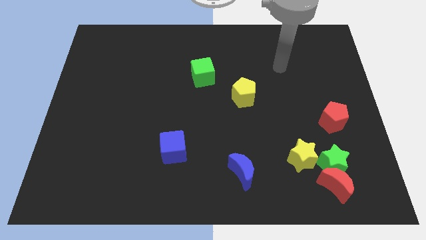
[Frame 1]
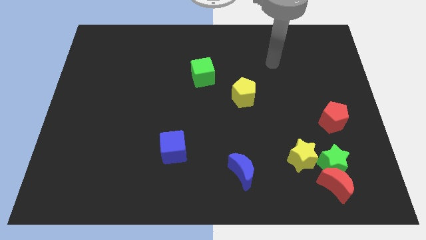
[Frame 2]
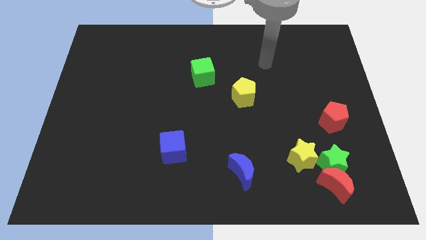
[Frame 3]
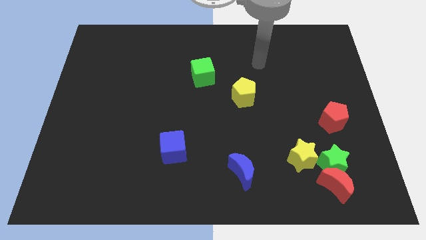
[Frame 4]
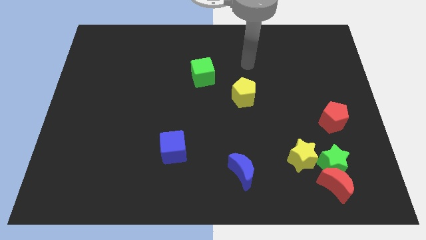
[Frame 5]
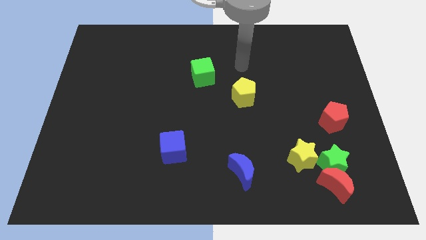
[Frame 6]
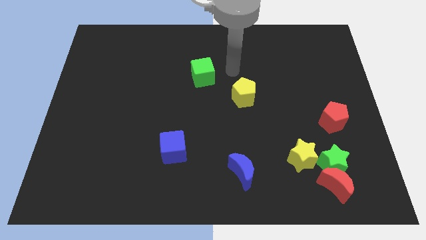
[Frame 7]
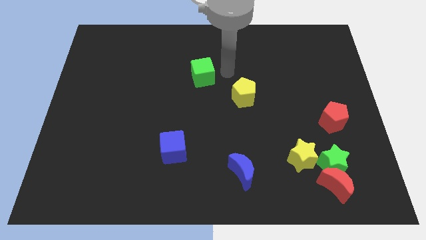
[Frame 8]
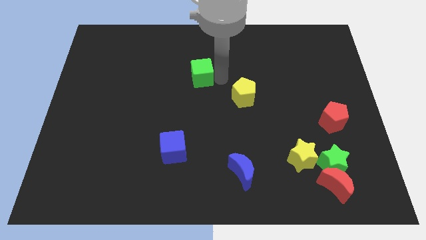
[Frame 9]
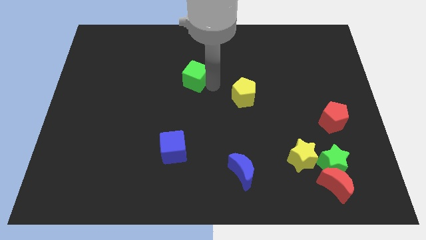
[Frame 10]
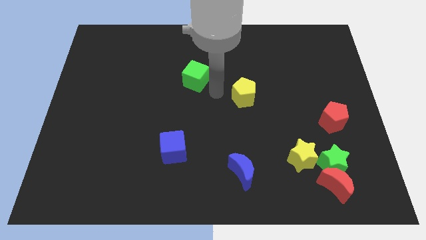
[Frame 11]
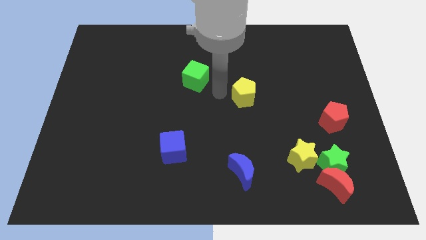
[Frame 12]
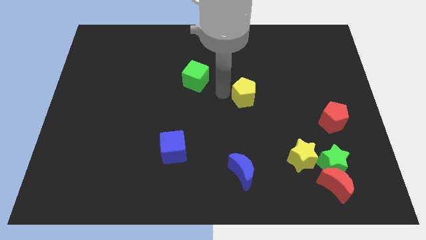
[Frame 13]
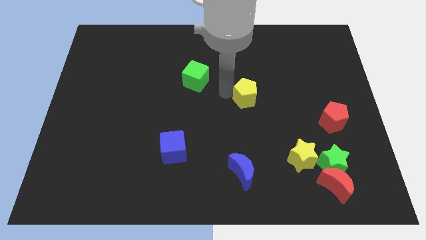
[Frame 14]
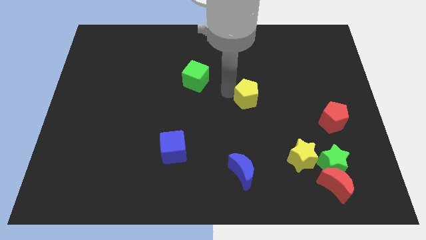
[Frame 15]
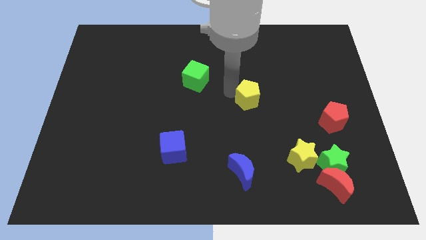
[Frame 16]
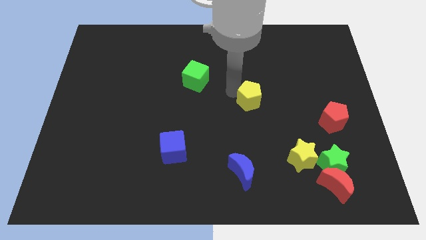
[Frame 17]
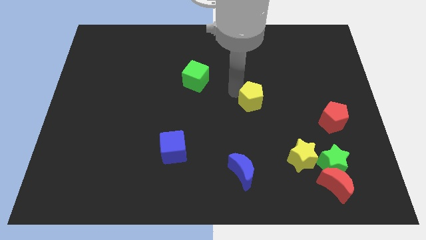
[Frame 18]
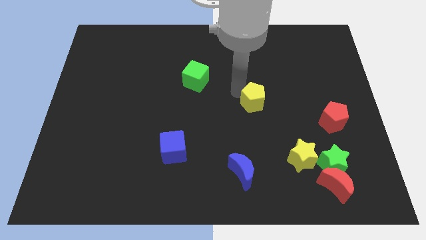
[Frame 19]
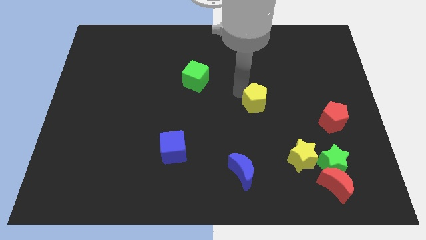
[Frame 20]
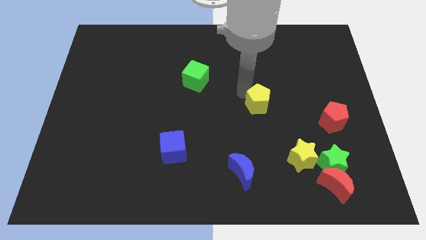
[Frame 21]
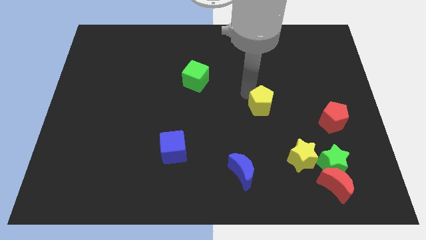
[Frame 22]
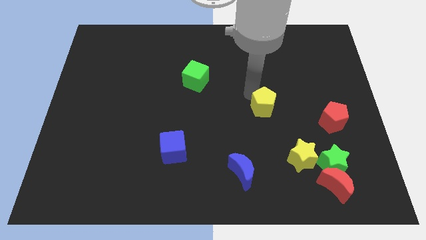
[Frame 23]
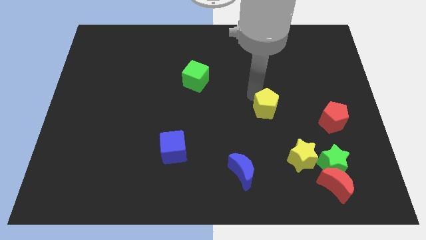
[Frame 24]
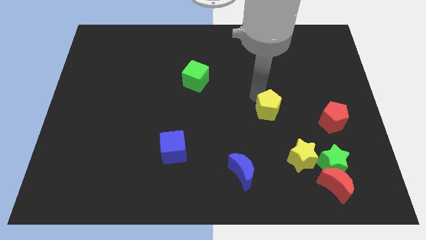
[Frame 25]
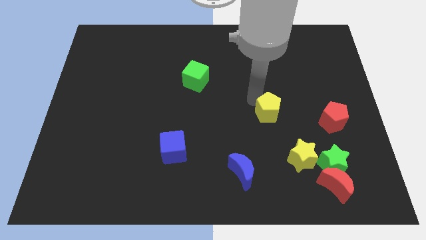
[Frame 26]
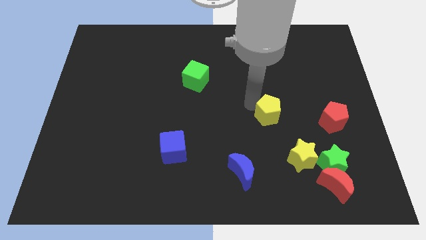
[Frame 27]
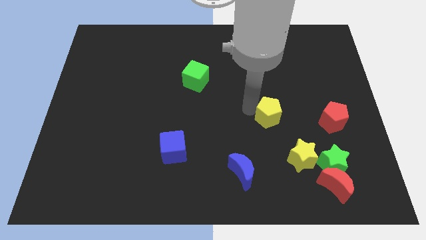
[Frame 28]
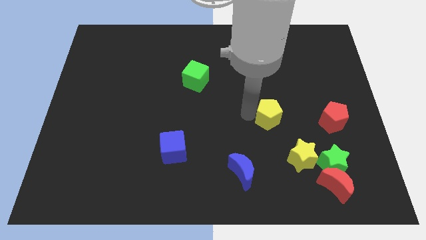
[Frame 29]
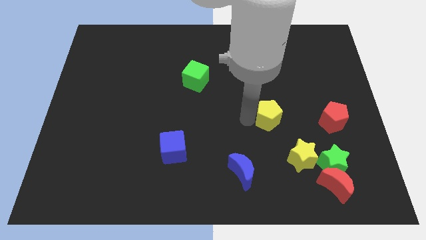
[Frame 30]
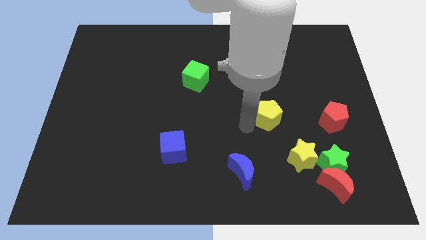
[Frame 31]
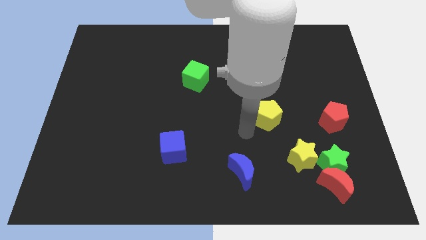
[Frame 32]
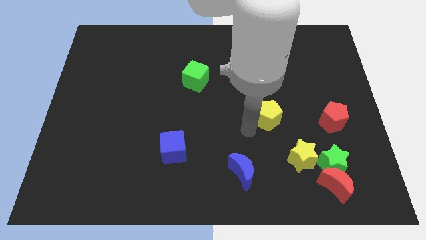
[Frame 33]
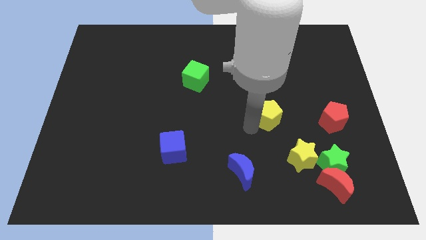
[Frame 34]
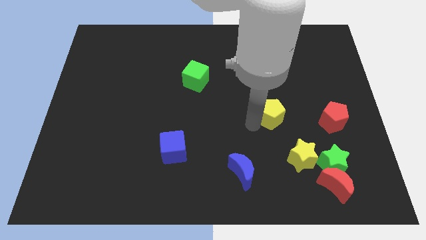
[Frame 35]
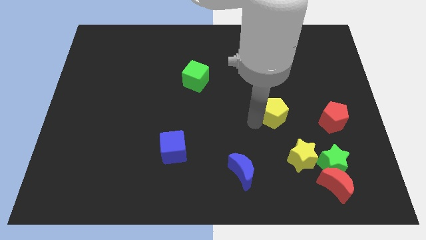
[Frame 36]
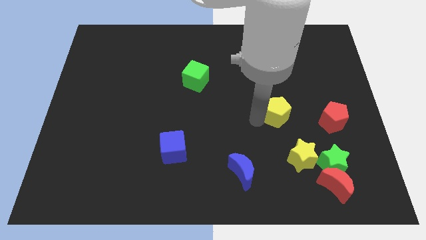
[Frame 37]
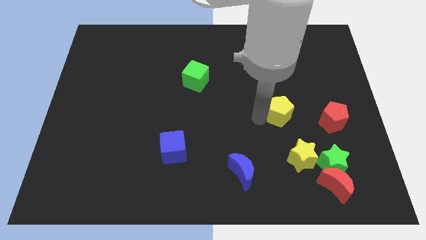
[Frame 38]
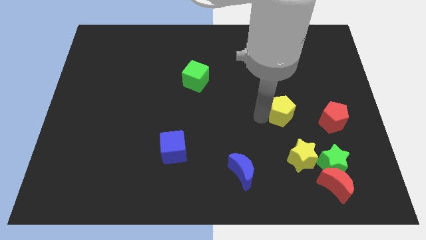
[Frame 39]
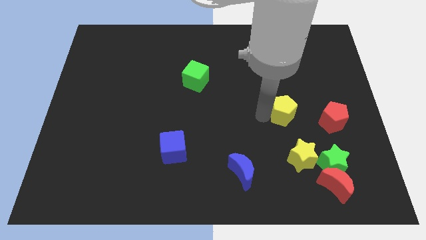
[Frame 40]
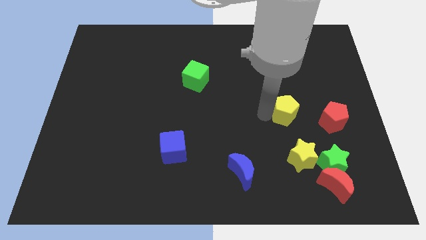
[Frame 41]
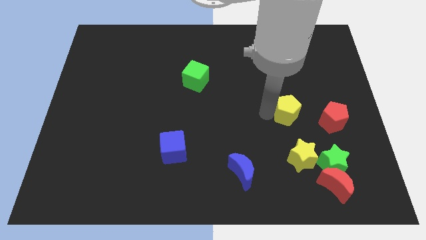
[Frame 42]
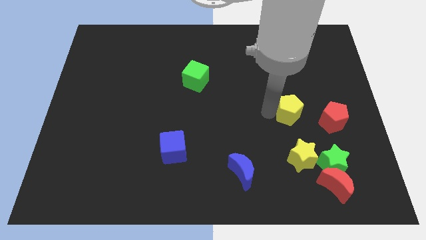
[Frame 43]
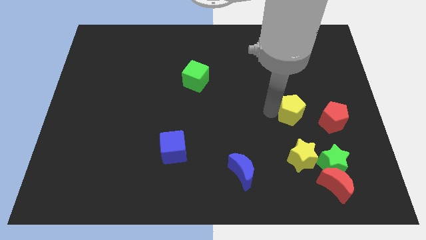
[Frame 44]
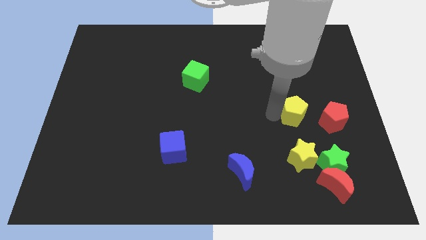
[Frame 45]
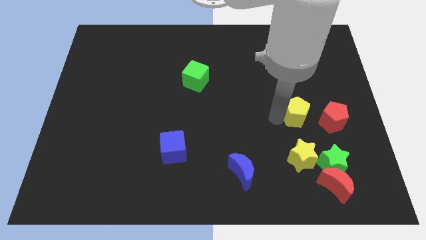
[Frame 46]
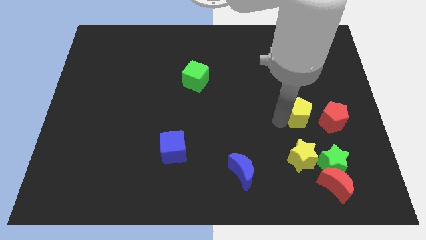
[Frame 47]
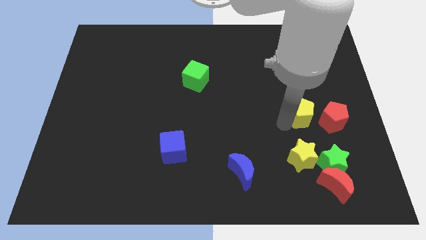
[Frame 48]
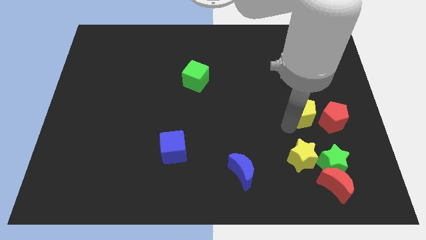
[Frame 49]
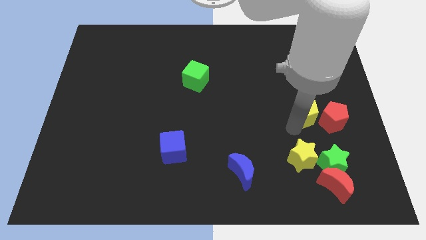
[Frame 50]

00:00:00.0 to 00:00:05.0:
move the yellow pentagon next to the red pentagon

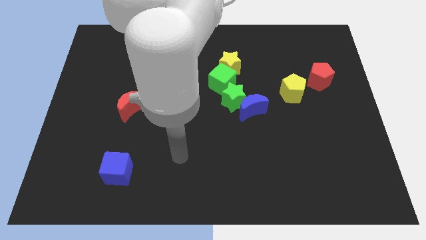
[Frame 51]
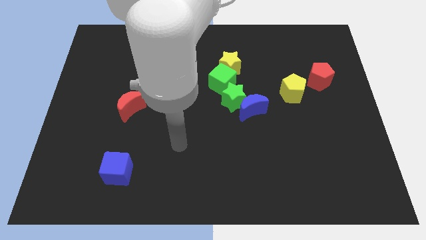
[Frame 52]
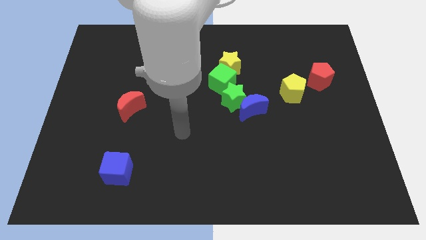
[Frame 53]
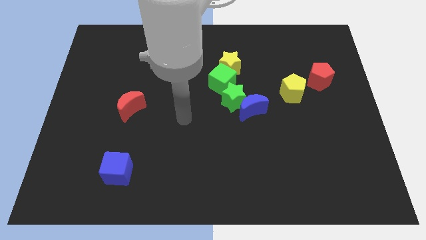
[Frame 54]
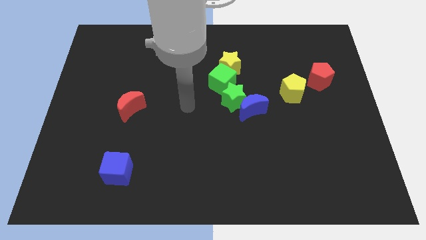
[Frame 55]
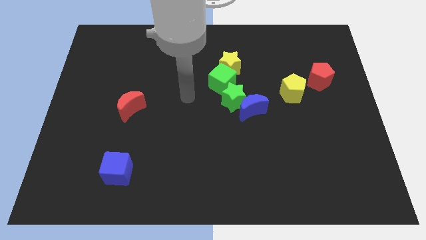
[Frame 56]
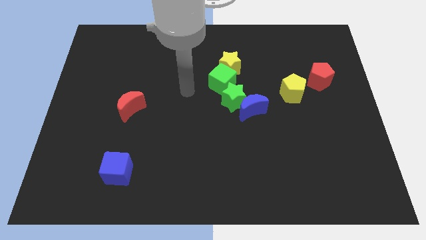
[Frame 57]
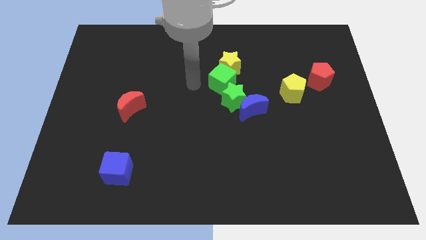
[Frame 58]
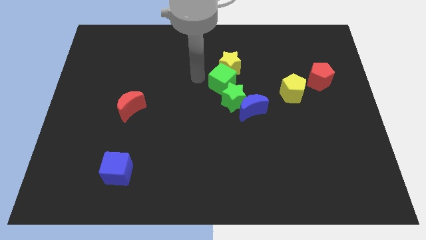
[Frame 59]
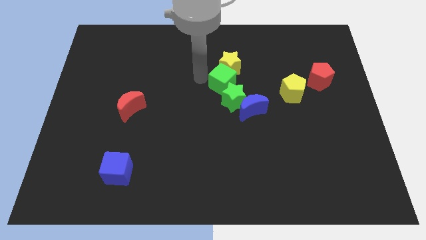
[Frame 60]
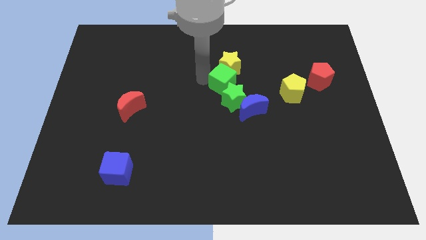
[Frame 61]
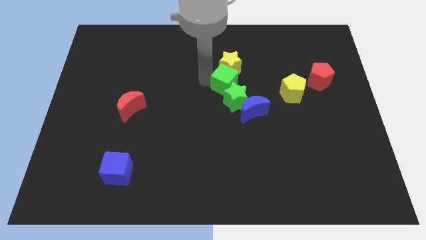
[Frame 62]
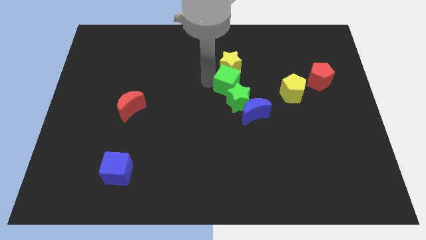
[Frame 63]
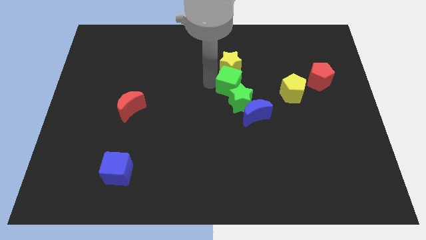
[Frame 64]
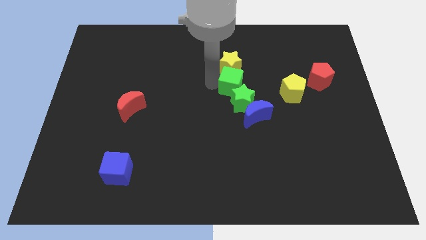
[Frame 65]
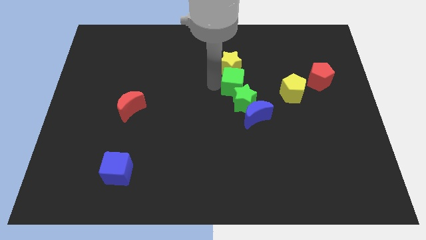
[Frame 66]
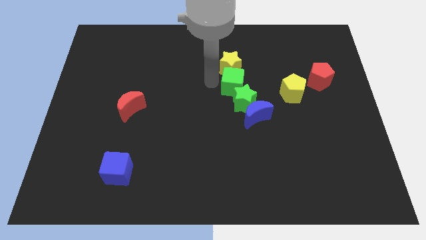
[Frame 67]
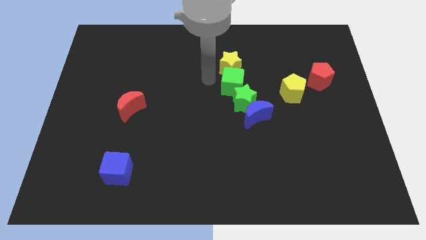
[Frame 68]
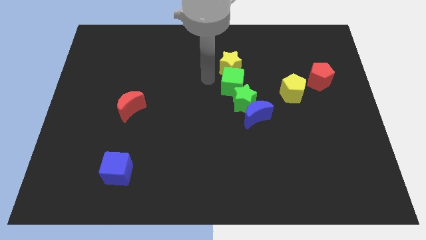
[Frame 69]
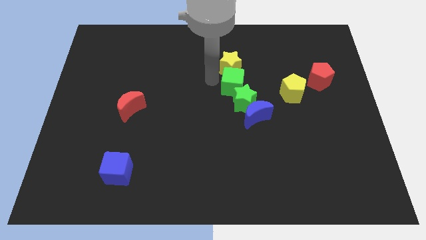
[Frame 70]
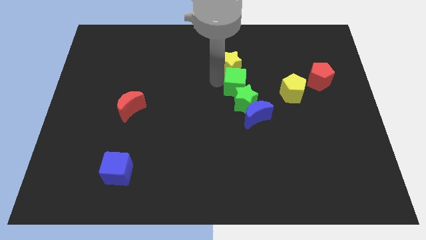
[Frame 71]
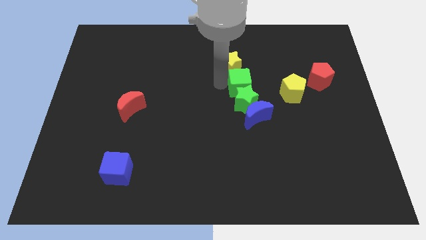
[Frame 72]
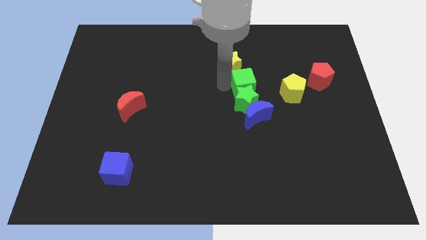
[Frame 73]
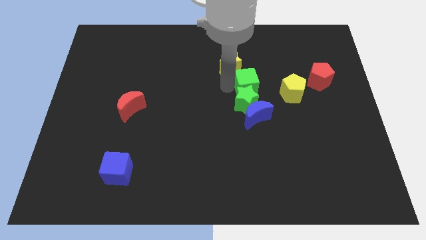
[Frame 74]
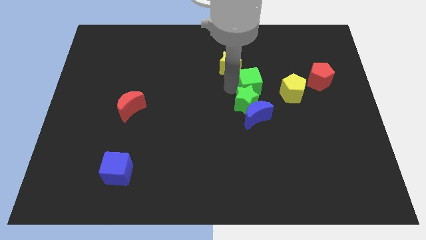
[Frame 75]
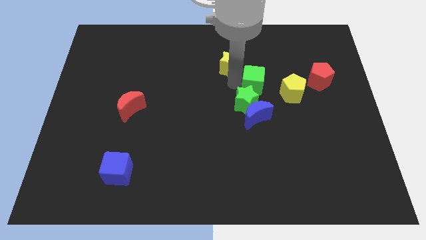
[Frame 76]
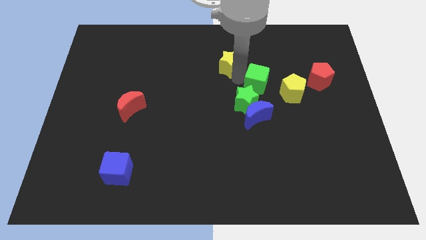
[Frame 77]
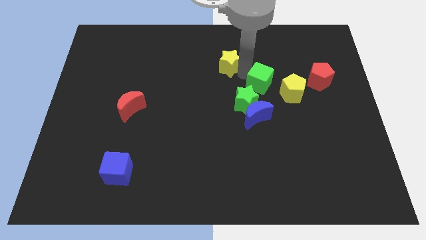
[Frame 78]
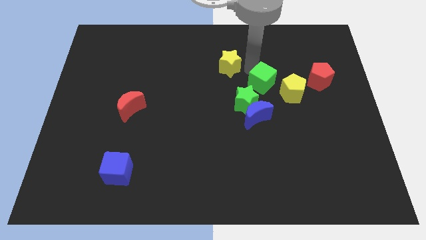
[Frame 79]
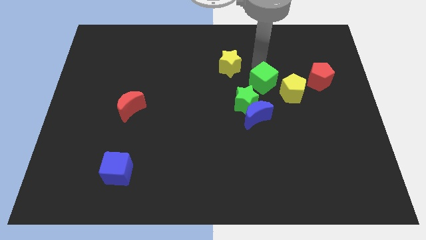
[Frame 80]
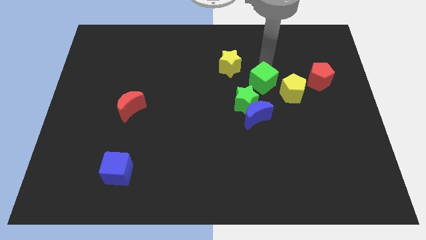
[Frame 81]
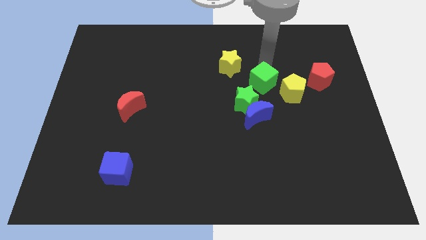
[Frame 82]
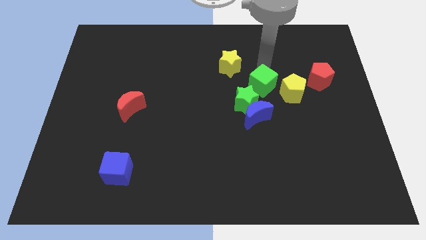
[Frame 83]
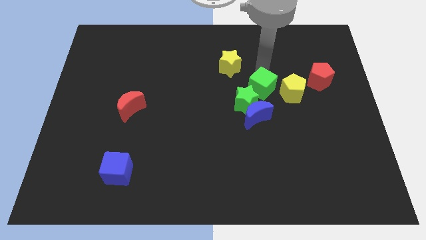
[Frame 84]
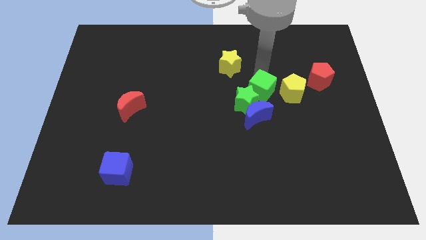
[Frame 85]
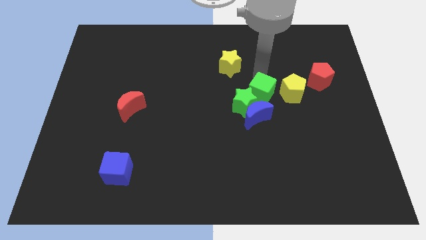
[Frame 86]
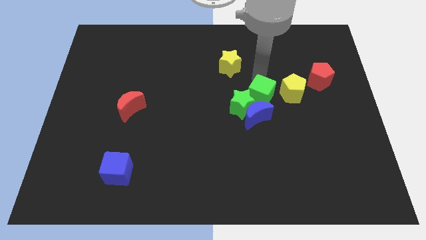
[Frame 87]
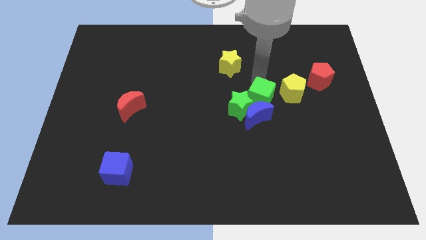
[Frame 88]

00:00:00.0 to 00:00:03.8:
push the green cube next to the blue moon
